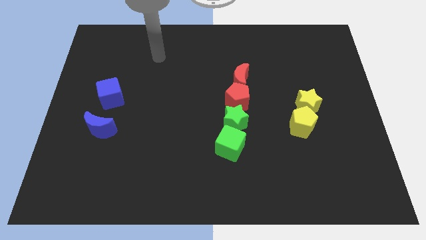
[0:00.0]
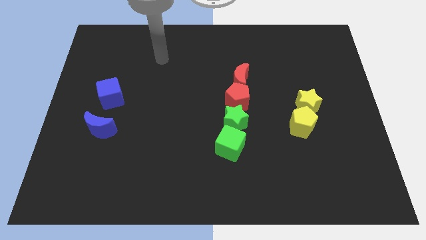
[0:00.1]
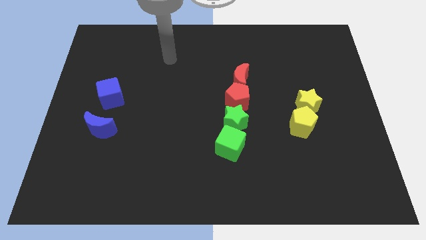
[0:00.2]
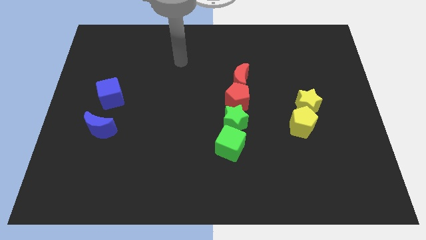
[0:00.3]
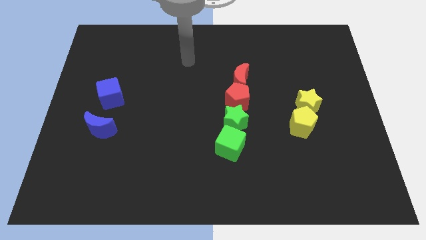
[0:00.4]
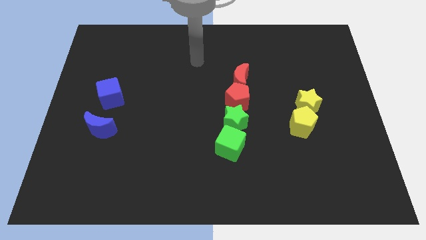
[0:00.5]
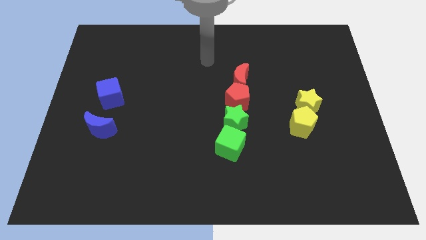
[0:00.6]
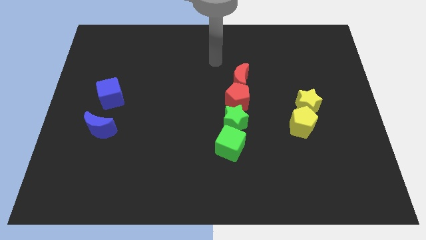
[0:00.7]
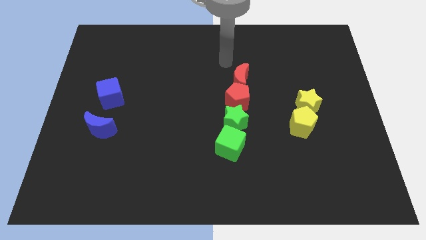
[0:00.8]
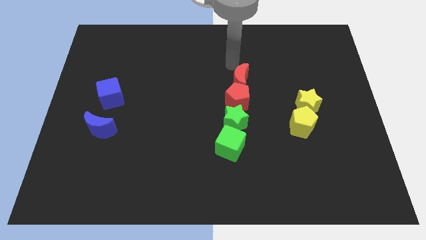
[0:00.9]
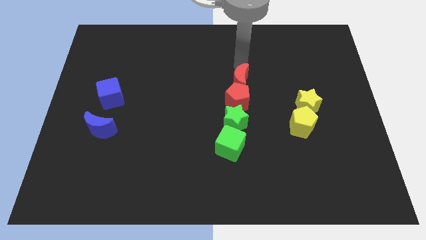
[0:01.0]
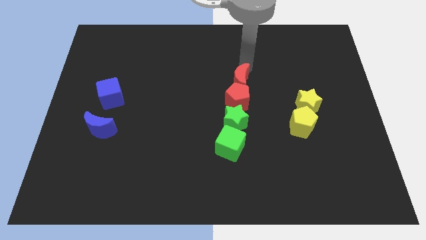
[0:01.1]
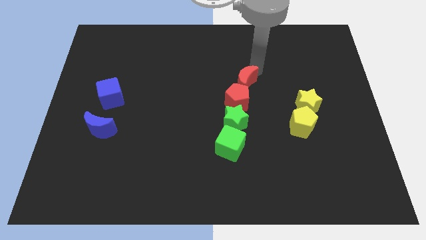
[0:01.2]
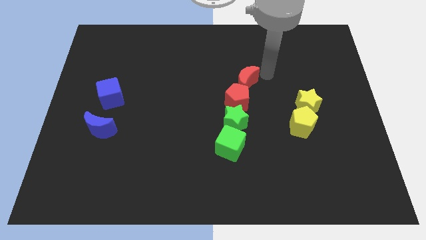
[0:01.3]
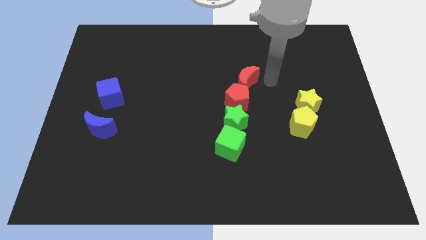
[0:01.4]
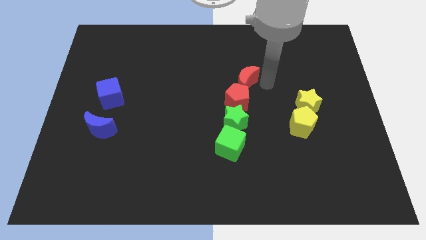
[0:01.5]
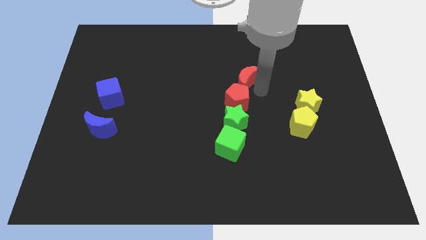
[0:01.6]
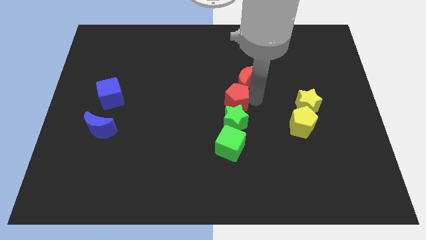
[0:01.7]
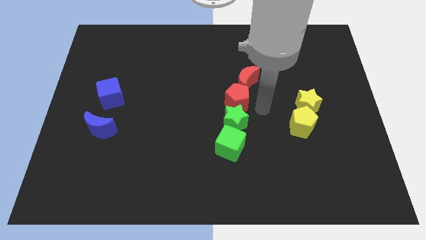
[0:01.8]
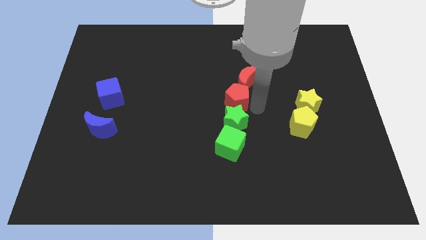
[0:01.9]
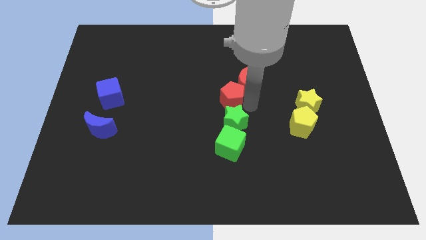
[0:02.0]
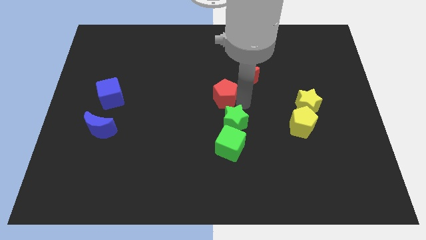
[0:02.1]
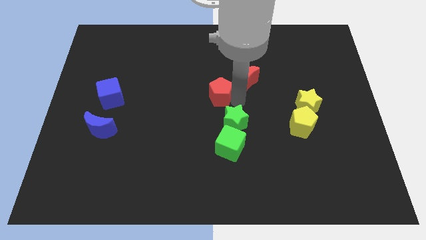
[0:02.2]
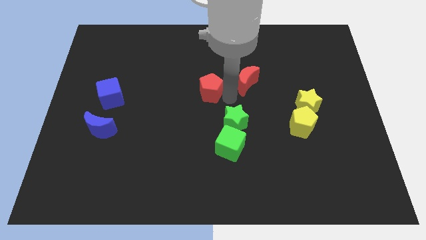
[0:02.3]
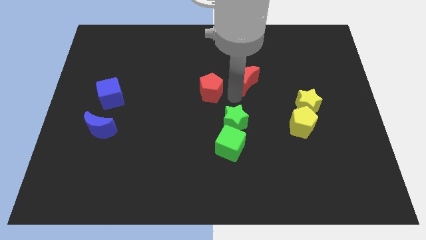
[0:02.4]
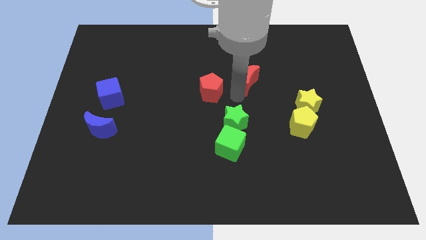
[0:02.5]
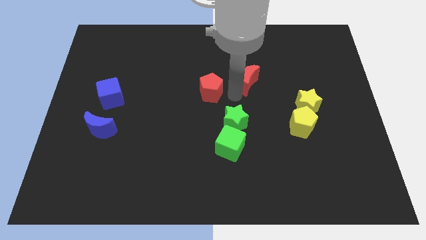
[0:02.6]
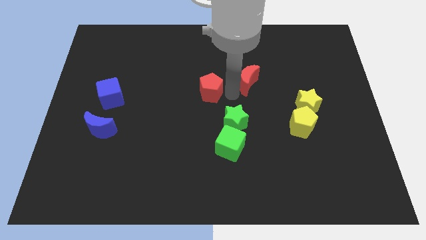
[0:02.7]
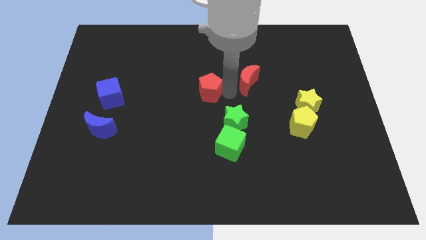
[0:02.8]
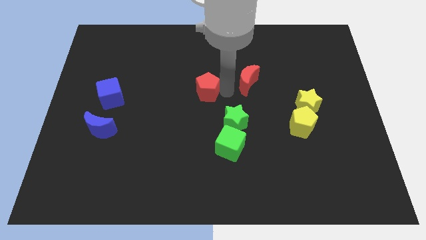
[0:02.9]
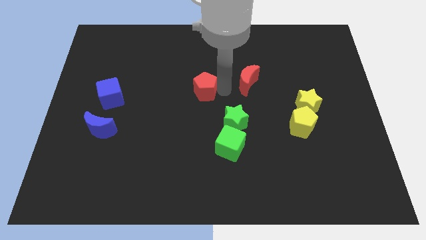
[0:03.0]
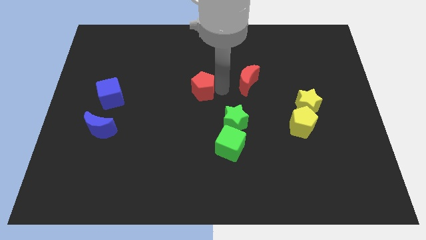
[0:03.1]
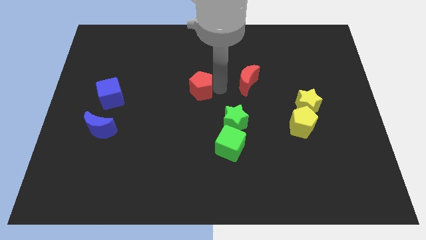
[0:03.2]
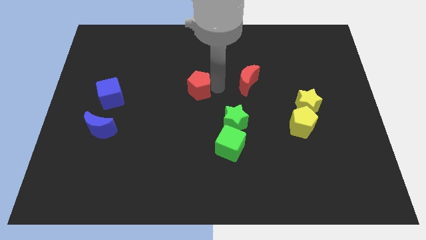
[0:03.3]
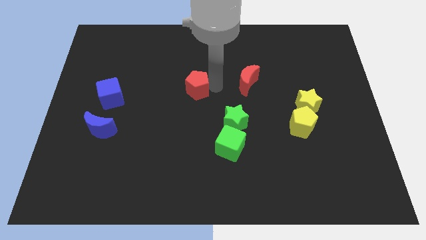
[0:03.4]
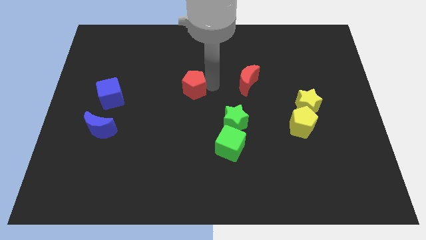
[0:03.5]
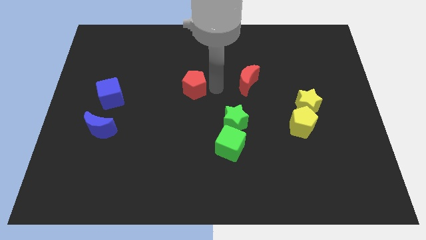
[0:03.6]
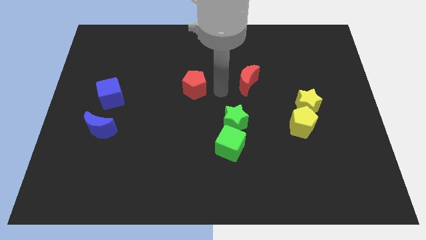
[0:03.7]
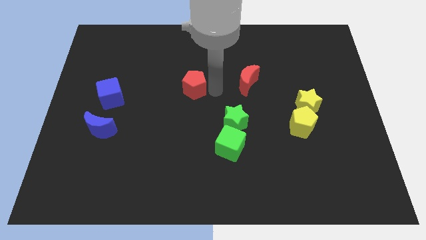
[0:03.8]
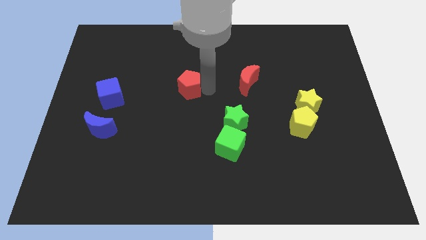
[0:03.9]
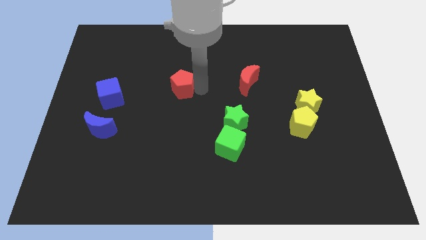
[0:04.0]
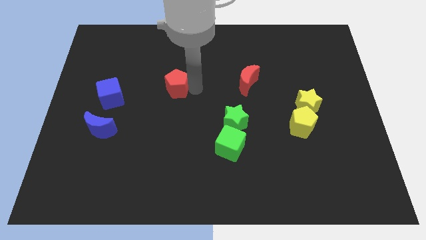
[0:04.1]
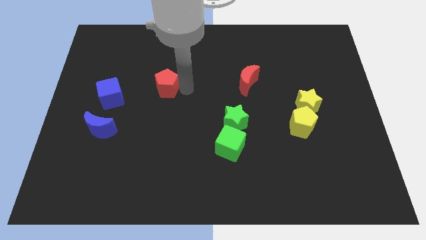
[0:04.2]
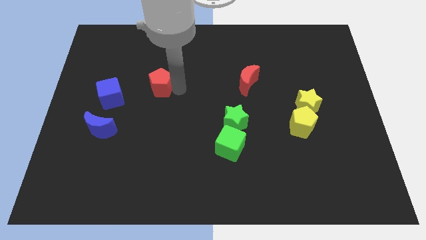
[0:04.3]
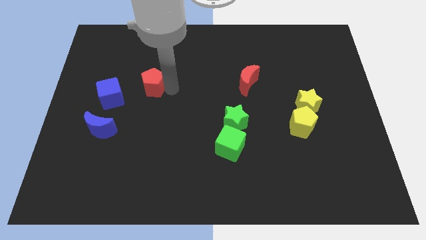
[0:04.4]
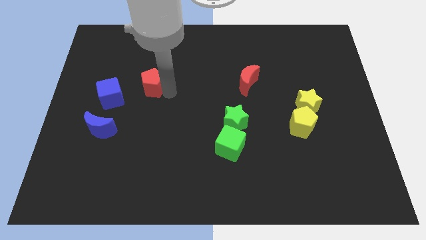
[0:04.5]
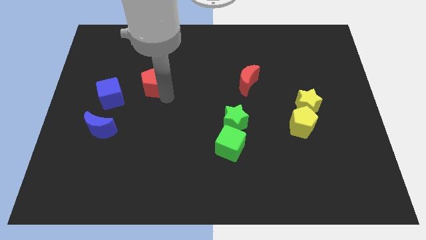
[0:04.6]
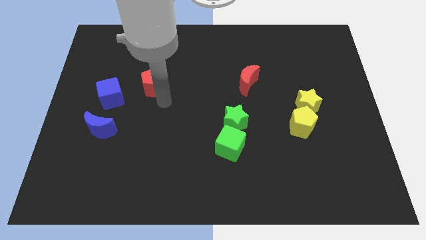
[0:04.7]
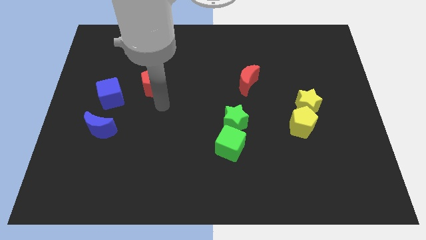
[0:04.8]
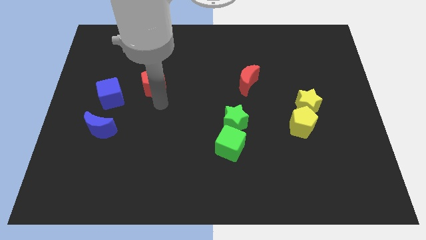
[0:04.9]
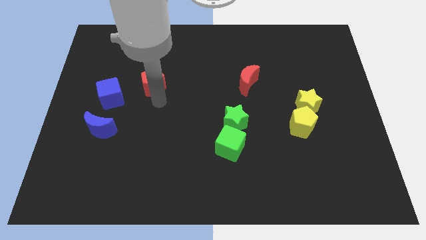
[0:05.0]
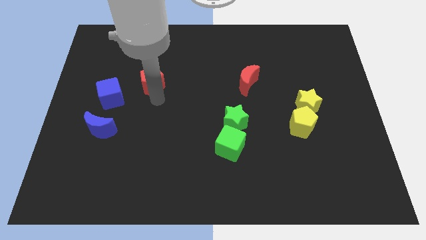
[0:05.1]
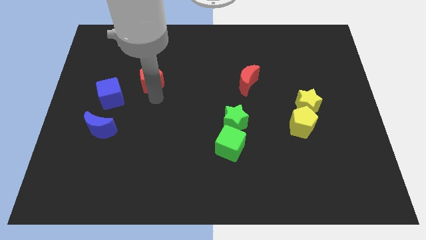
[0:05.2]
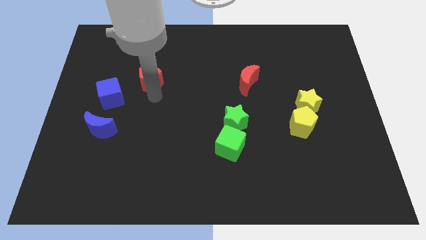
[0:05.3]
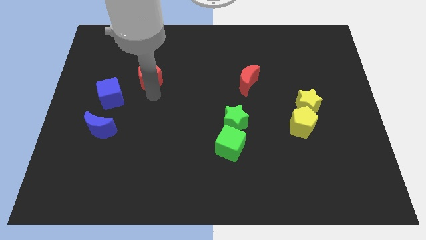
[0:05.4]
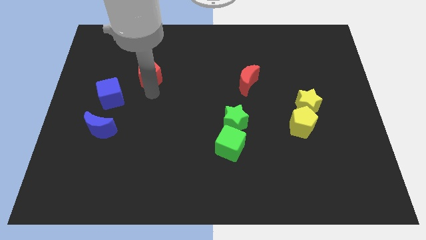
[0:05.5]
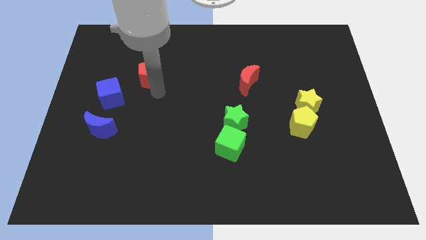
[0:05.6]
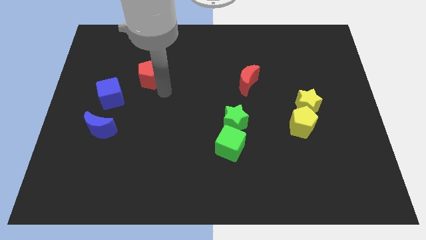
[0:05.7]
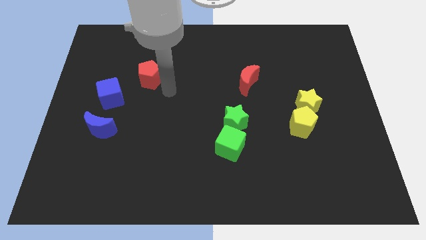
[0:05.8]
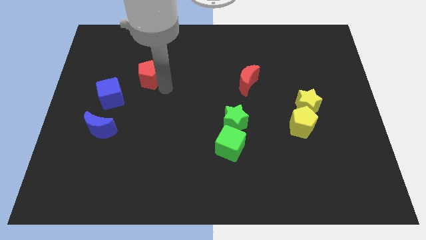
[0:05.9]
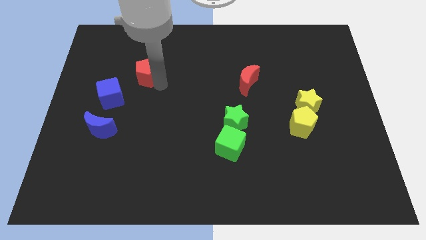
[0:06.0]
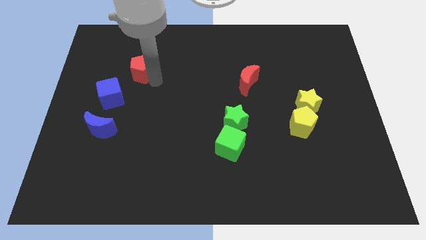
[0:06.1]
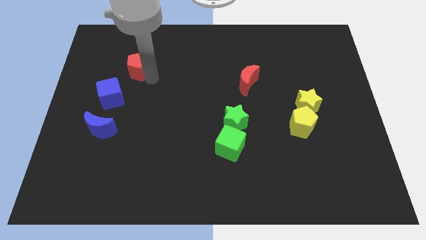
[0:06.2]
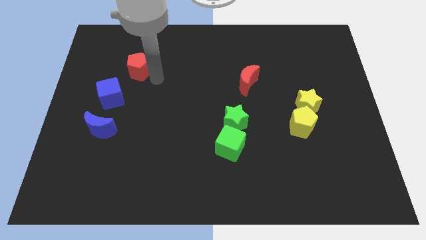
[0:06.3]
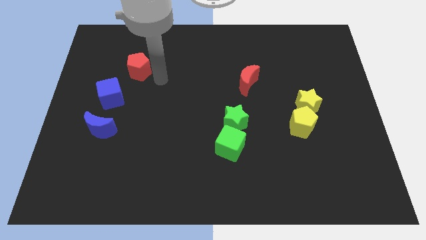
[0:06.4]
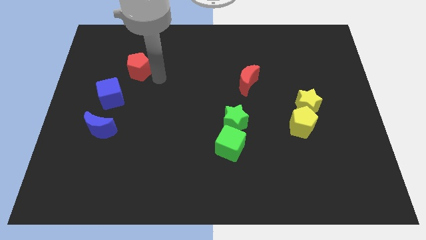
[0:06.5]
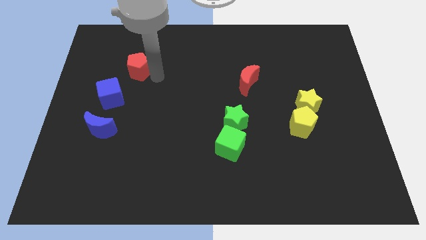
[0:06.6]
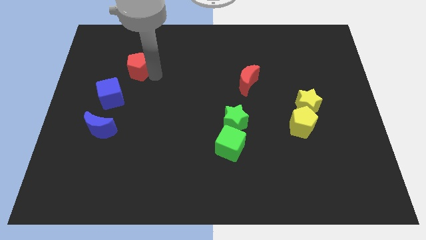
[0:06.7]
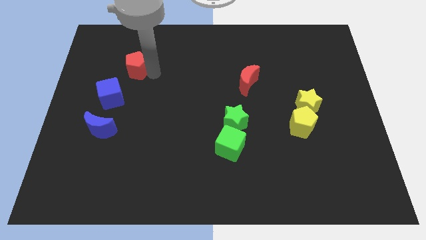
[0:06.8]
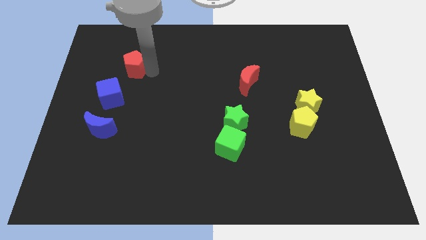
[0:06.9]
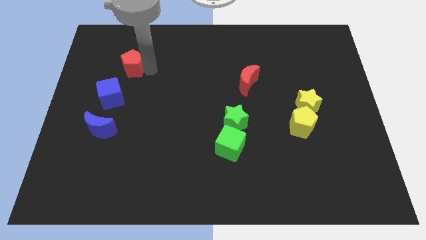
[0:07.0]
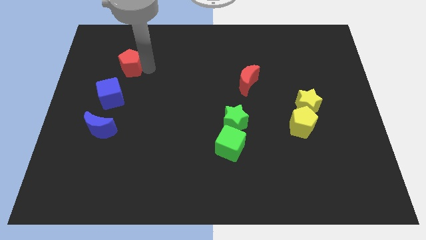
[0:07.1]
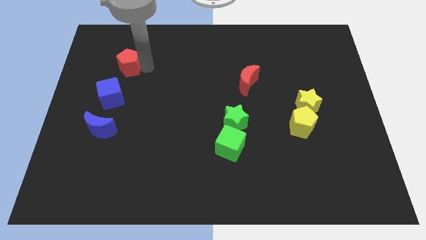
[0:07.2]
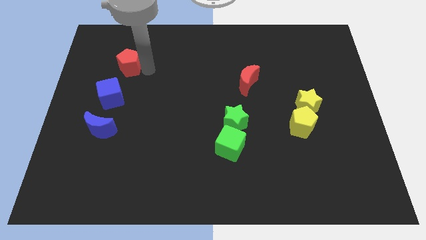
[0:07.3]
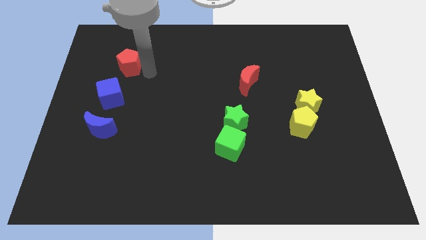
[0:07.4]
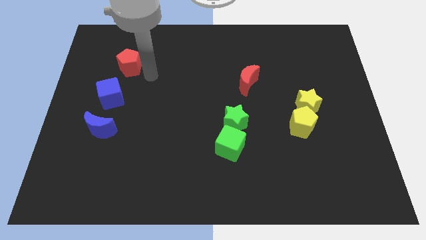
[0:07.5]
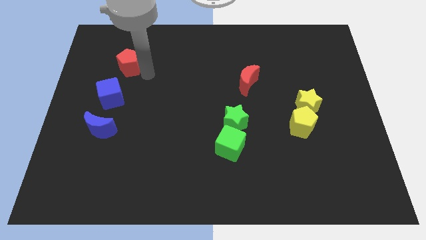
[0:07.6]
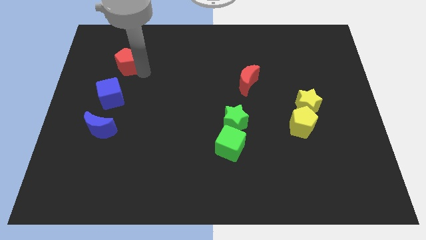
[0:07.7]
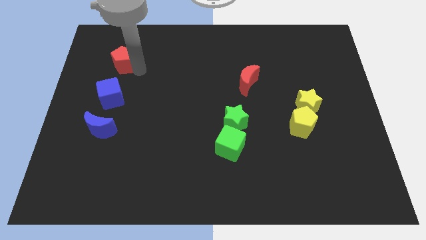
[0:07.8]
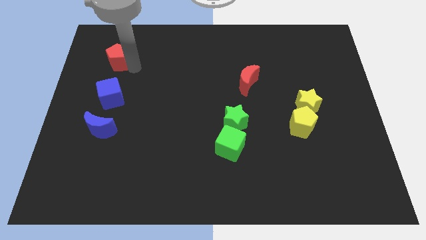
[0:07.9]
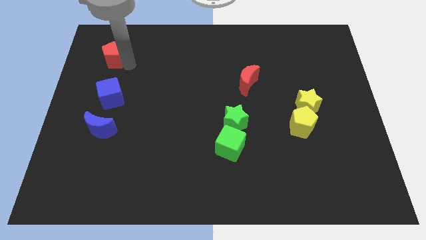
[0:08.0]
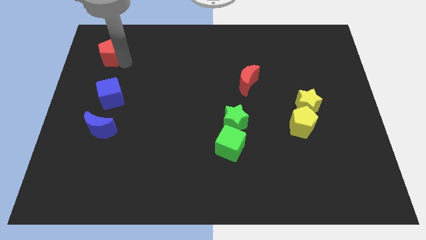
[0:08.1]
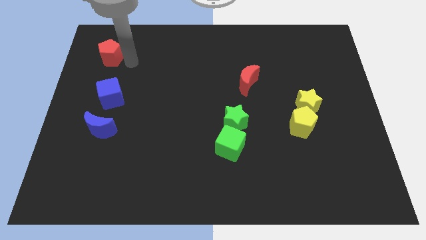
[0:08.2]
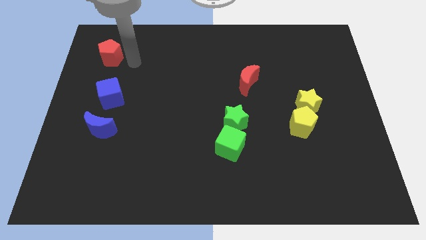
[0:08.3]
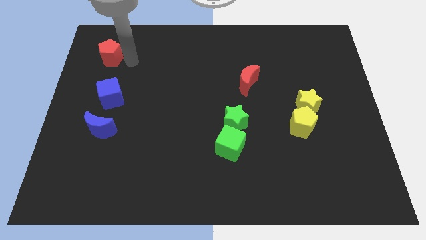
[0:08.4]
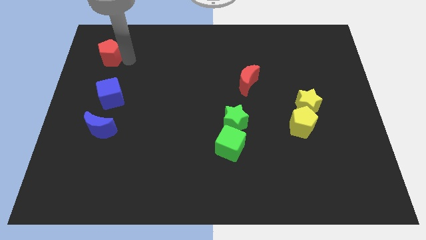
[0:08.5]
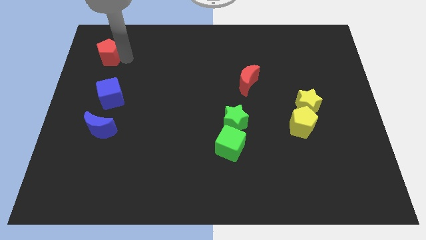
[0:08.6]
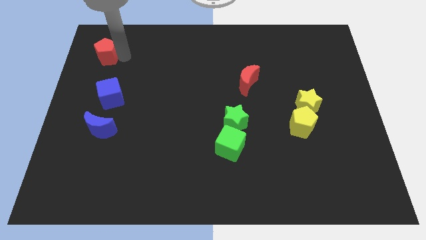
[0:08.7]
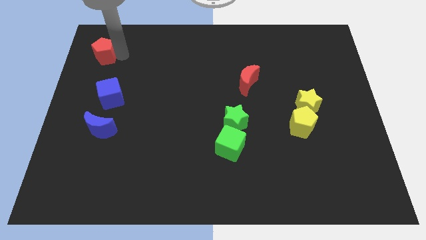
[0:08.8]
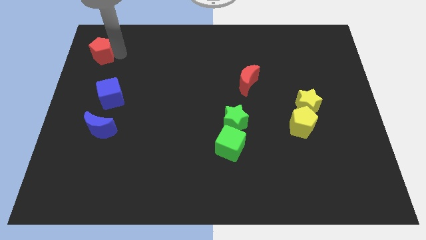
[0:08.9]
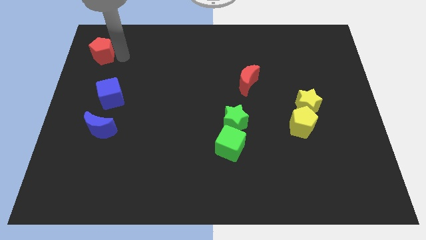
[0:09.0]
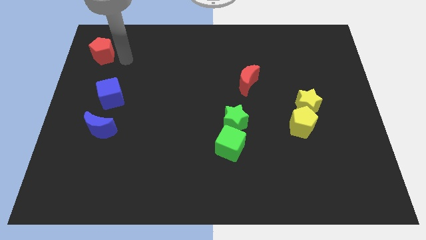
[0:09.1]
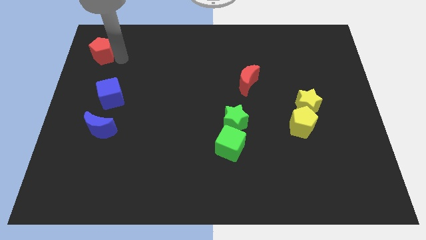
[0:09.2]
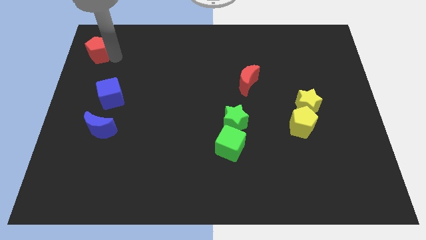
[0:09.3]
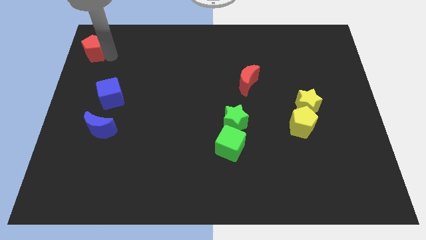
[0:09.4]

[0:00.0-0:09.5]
push the red pentagon to the top left
